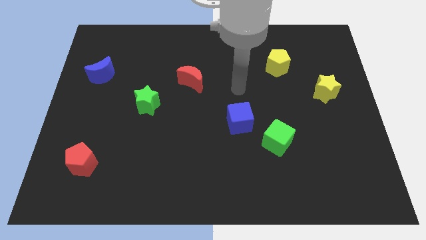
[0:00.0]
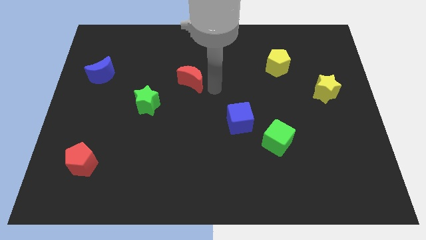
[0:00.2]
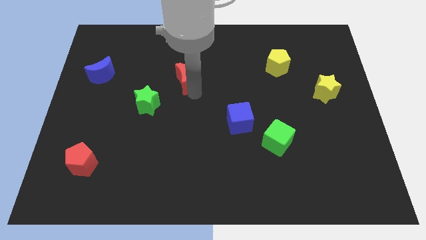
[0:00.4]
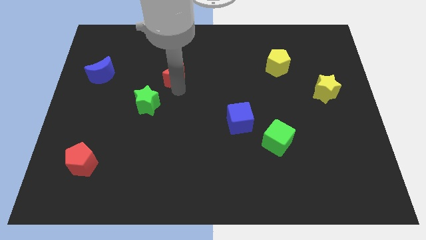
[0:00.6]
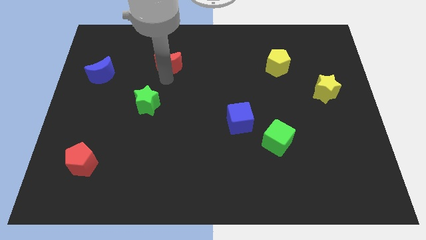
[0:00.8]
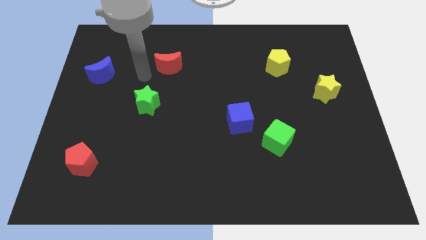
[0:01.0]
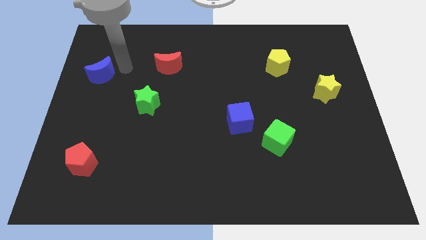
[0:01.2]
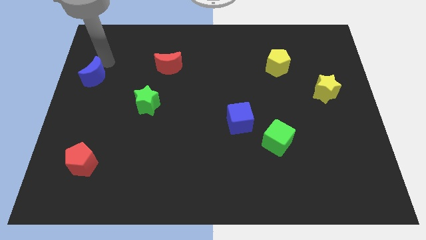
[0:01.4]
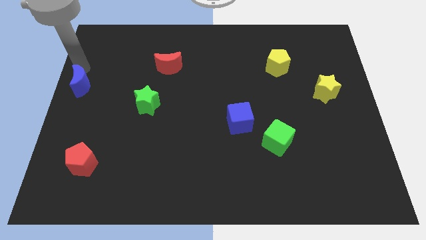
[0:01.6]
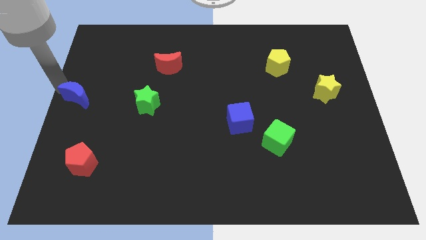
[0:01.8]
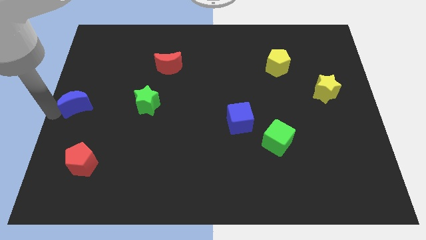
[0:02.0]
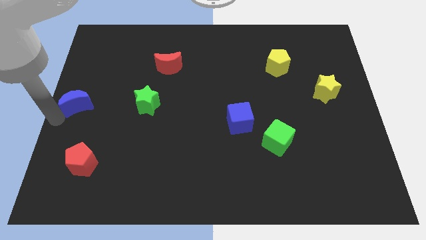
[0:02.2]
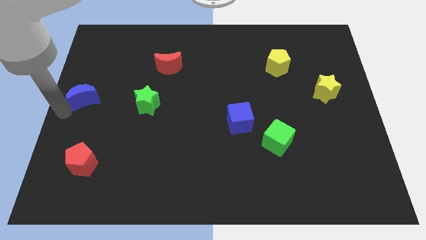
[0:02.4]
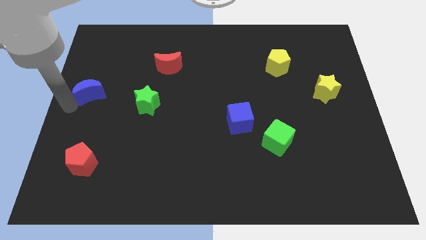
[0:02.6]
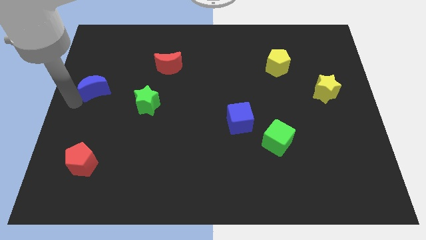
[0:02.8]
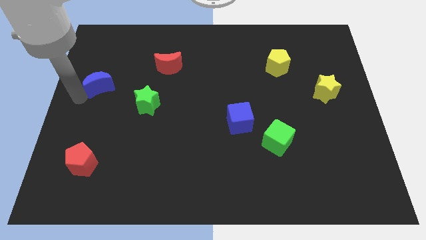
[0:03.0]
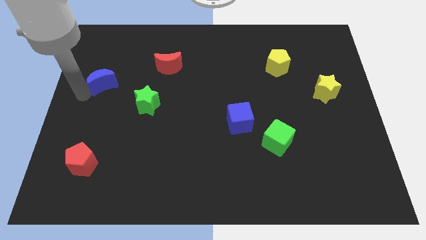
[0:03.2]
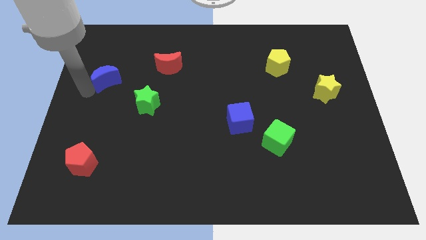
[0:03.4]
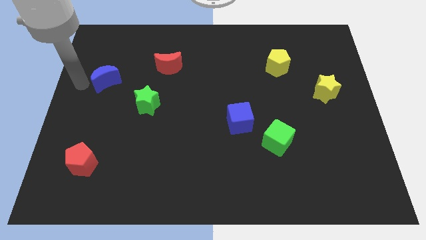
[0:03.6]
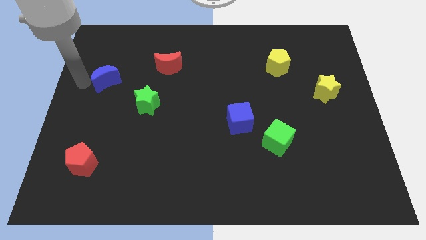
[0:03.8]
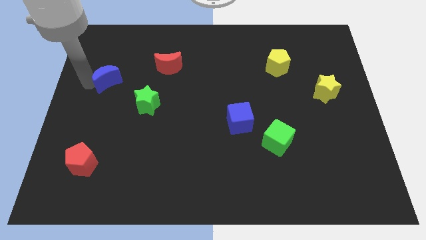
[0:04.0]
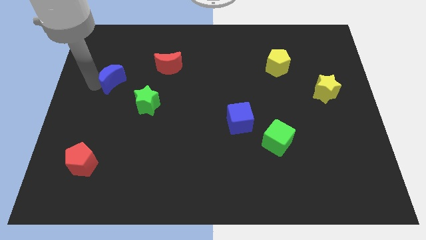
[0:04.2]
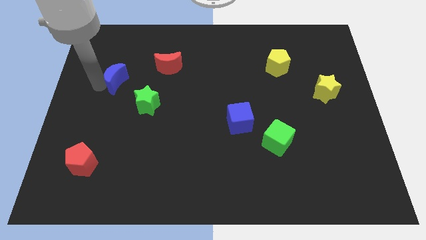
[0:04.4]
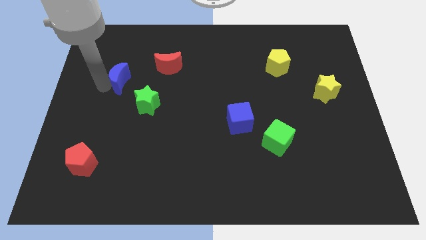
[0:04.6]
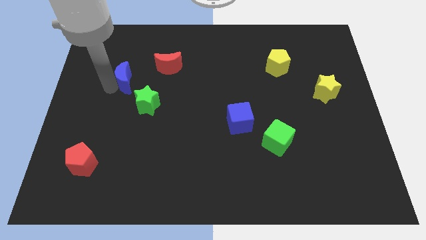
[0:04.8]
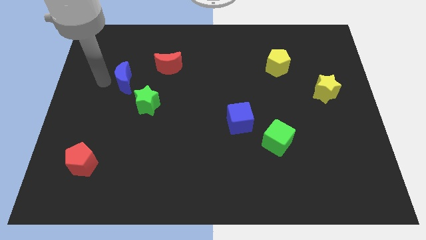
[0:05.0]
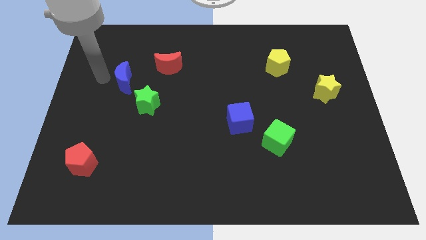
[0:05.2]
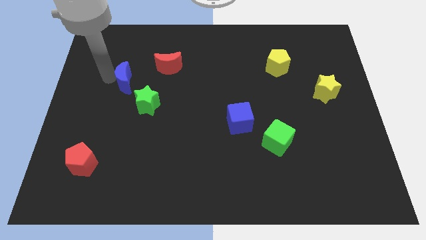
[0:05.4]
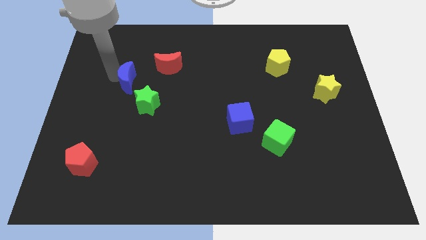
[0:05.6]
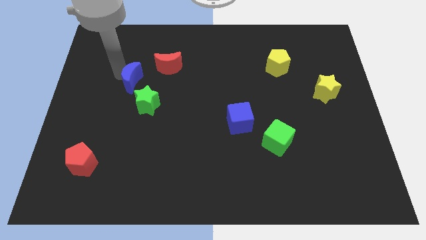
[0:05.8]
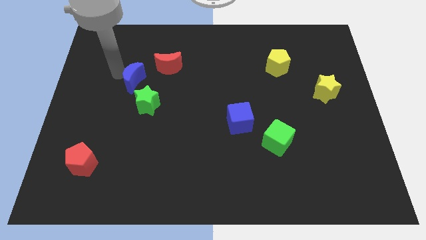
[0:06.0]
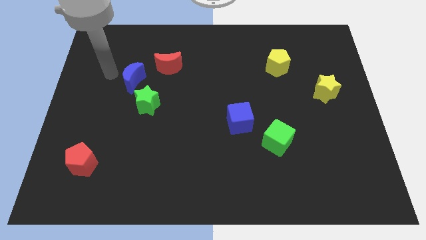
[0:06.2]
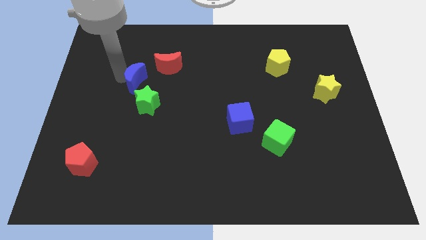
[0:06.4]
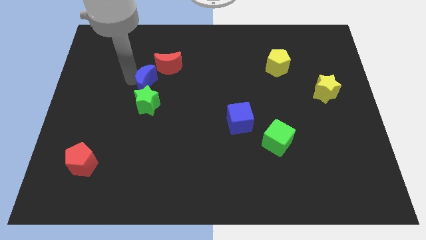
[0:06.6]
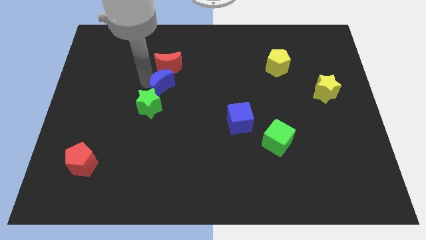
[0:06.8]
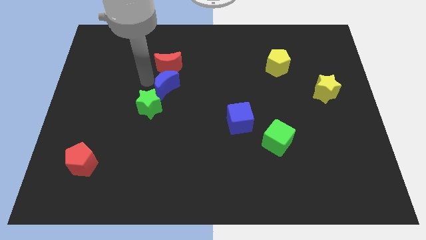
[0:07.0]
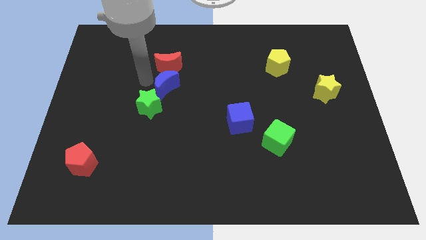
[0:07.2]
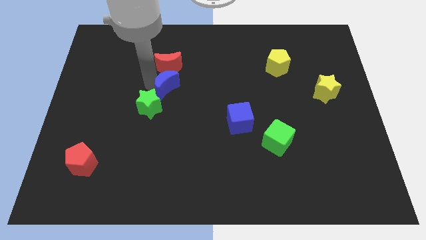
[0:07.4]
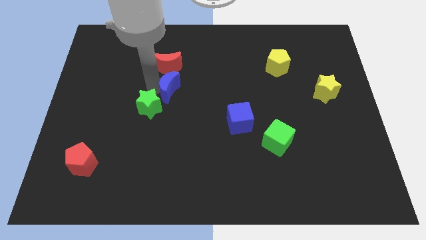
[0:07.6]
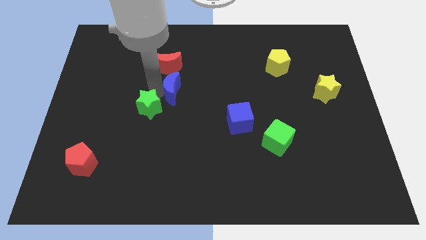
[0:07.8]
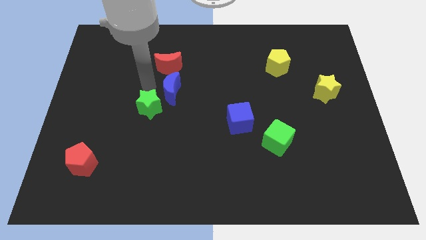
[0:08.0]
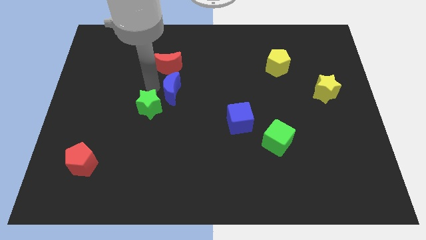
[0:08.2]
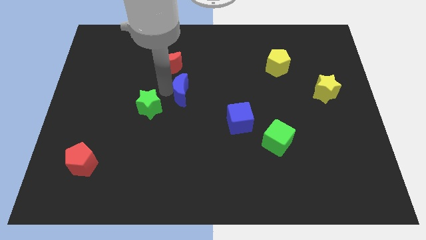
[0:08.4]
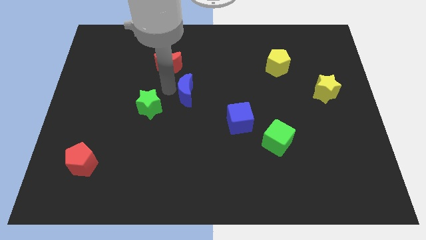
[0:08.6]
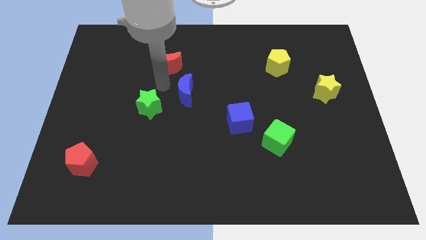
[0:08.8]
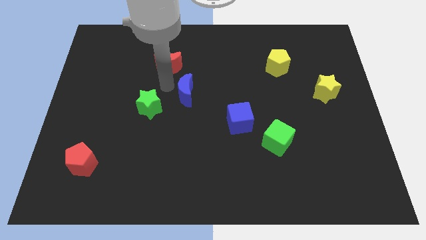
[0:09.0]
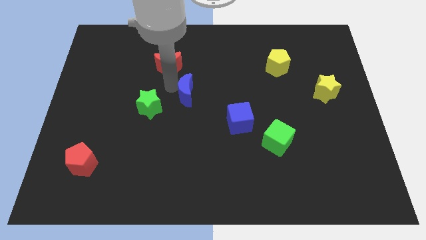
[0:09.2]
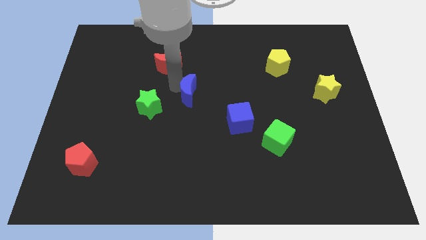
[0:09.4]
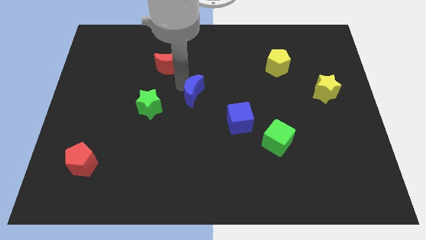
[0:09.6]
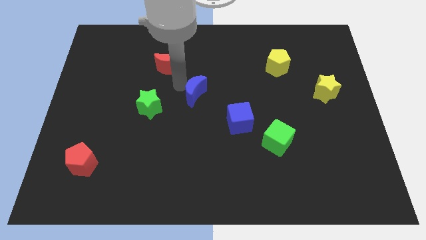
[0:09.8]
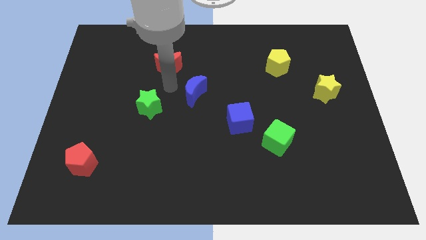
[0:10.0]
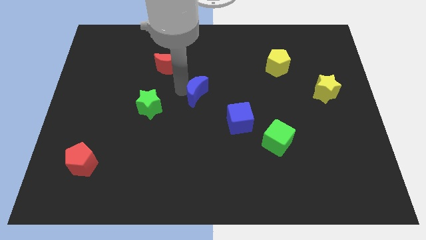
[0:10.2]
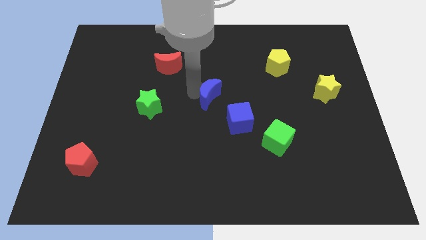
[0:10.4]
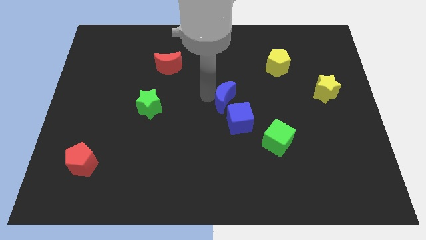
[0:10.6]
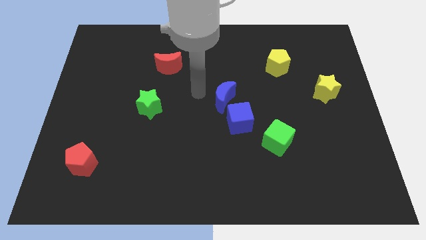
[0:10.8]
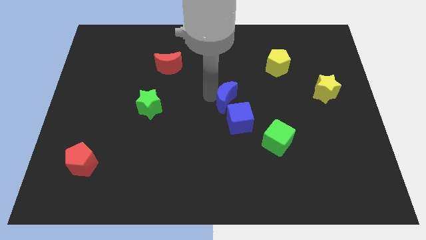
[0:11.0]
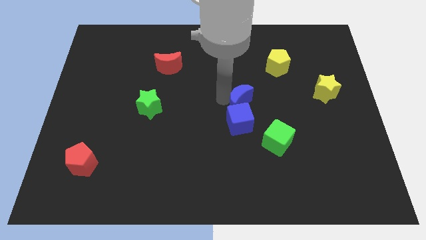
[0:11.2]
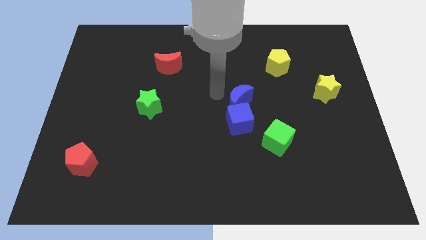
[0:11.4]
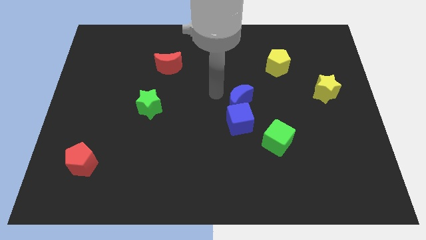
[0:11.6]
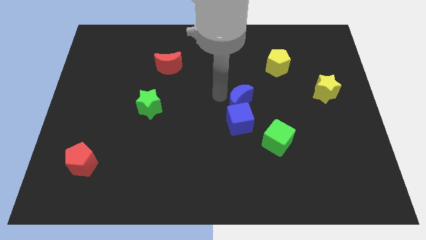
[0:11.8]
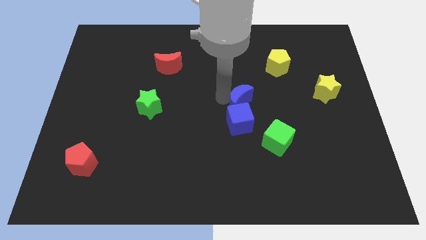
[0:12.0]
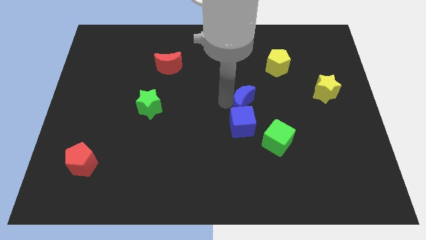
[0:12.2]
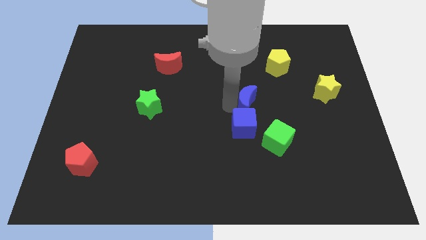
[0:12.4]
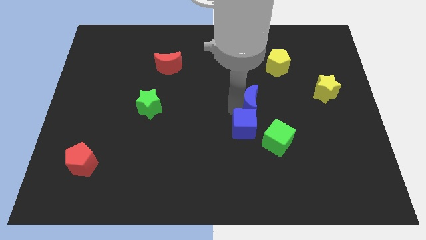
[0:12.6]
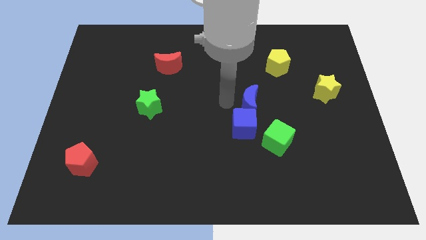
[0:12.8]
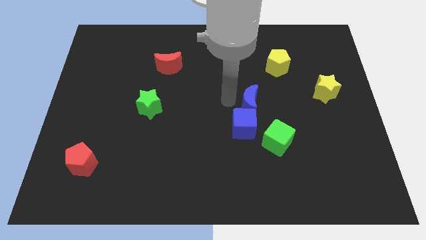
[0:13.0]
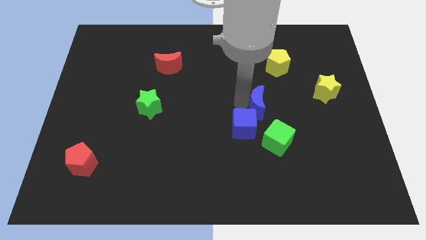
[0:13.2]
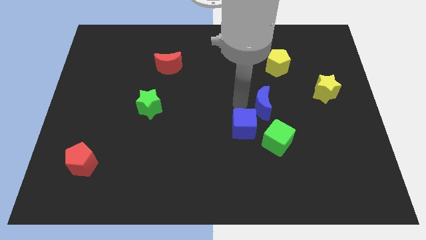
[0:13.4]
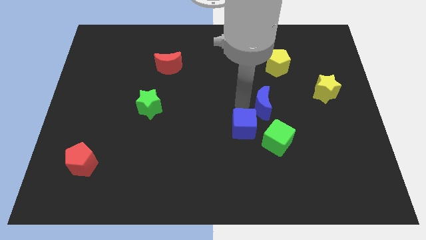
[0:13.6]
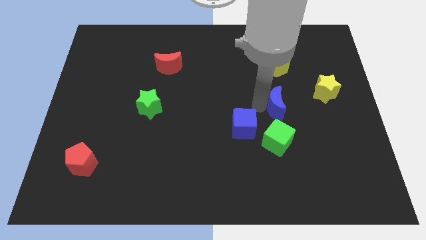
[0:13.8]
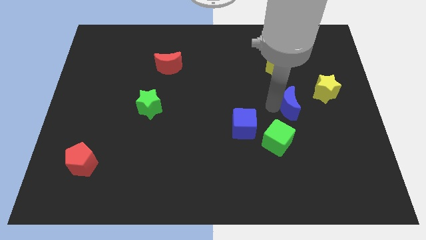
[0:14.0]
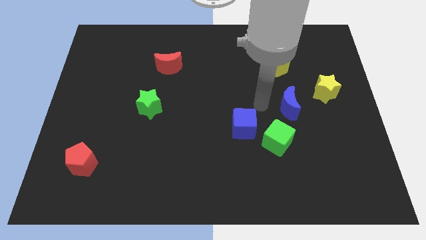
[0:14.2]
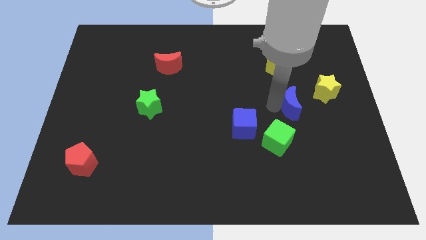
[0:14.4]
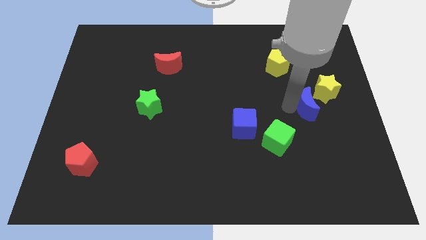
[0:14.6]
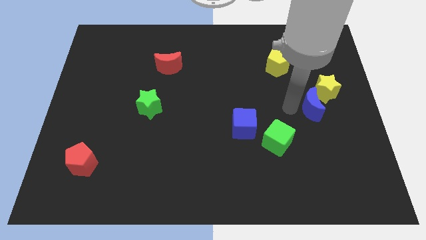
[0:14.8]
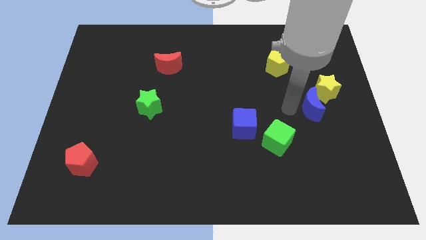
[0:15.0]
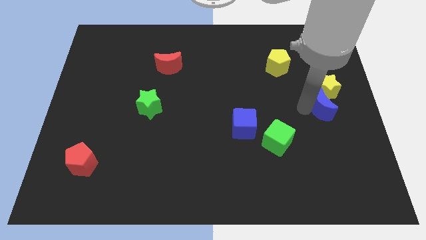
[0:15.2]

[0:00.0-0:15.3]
put the blue moon to the right side of the board

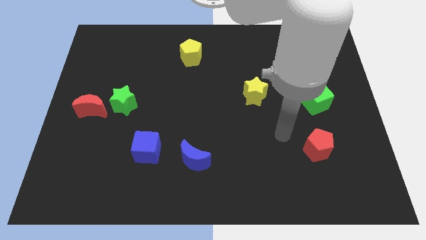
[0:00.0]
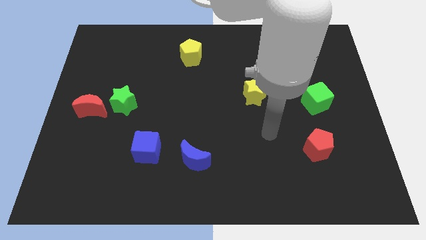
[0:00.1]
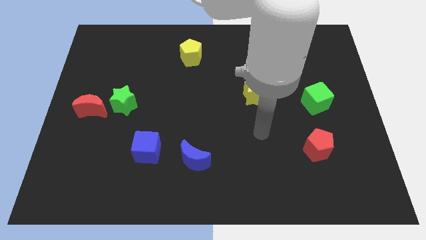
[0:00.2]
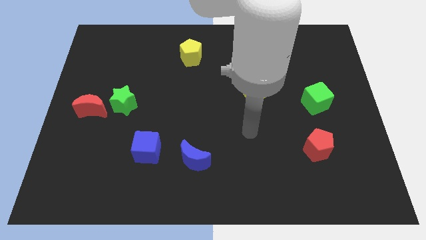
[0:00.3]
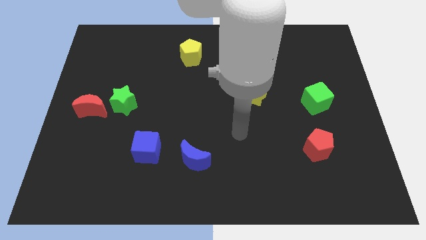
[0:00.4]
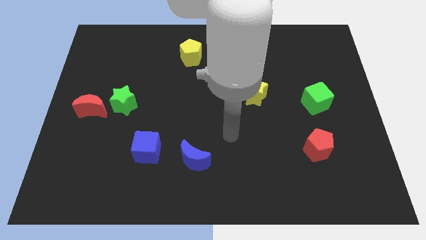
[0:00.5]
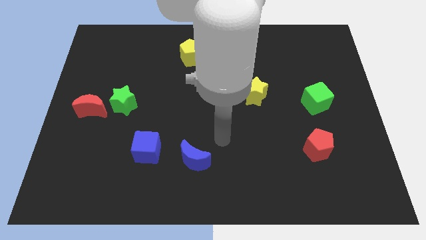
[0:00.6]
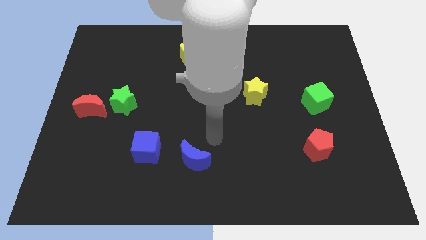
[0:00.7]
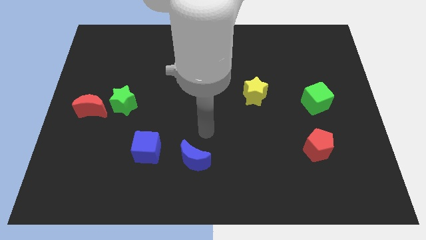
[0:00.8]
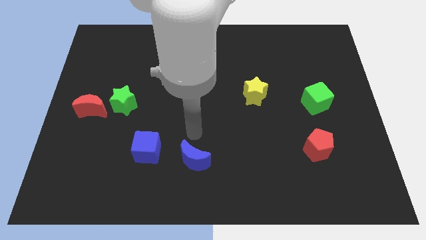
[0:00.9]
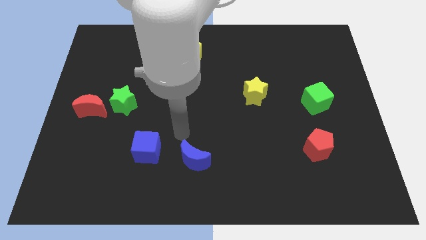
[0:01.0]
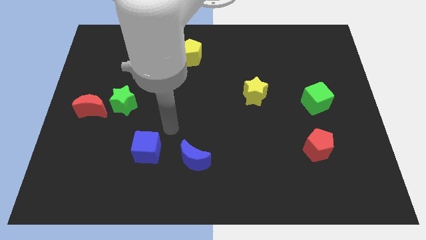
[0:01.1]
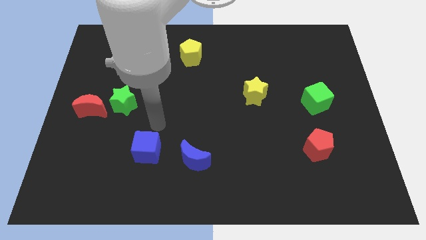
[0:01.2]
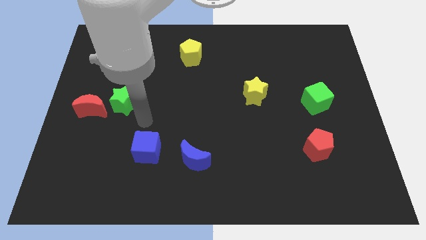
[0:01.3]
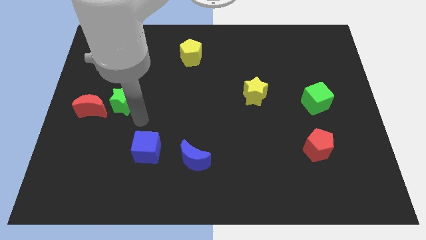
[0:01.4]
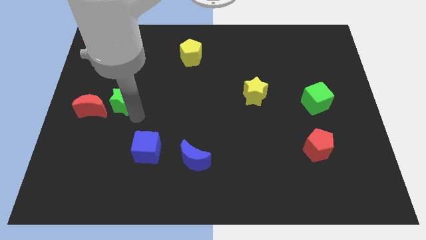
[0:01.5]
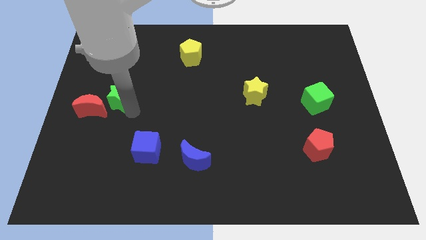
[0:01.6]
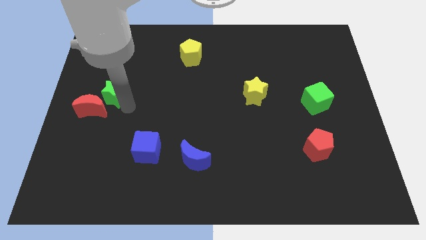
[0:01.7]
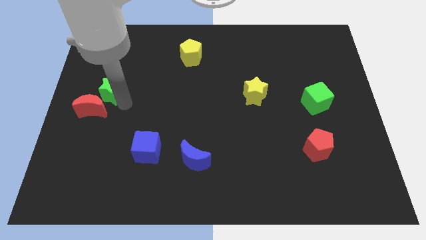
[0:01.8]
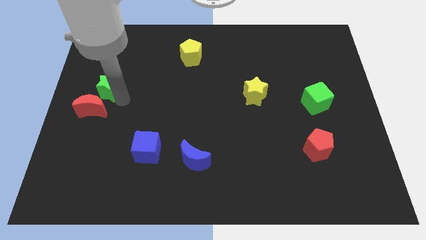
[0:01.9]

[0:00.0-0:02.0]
push the green star to the left side of the board
